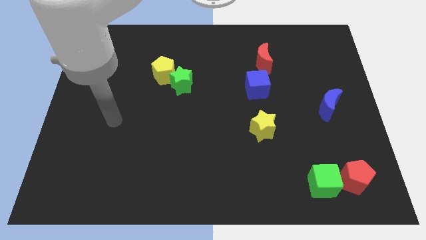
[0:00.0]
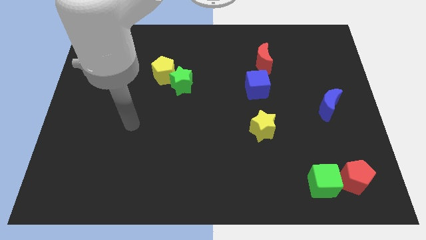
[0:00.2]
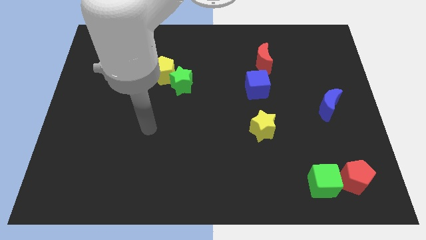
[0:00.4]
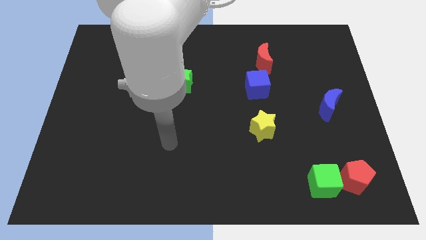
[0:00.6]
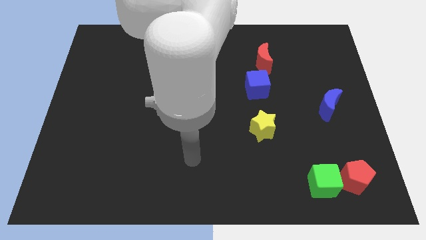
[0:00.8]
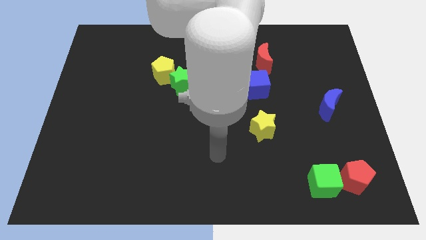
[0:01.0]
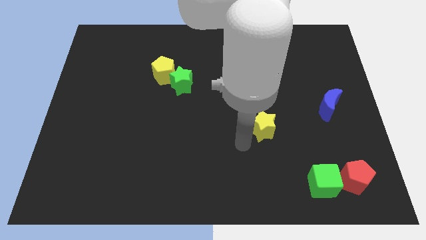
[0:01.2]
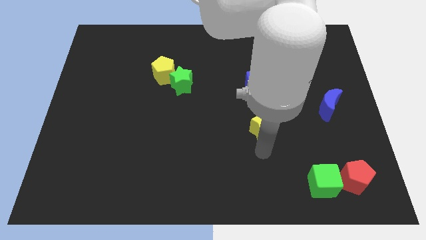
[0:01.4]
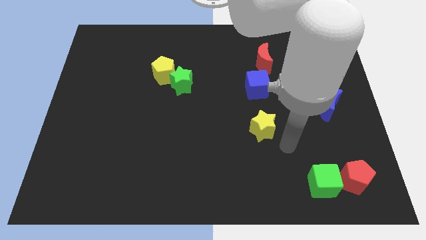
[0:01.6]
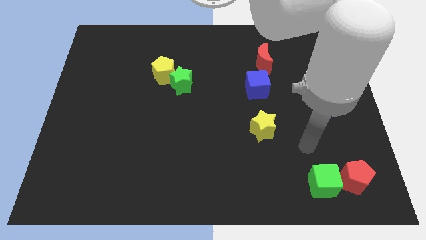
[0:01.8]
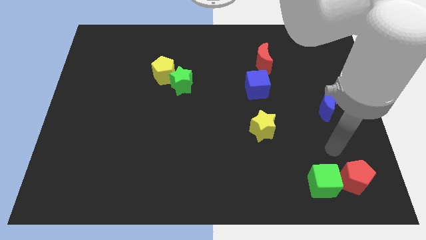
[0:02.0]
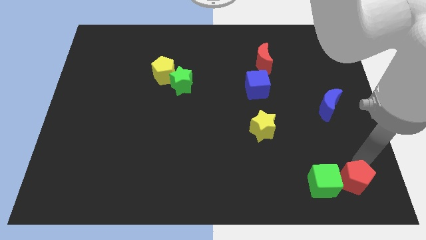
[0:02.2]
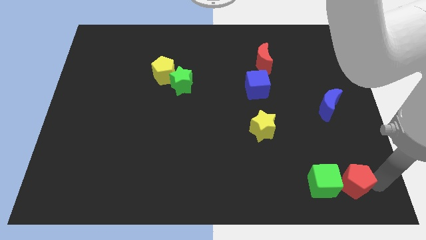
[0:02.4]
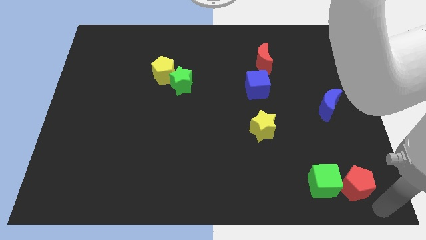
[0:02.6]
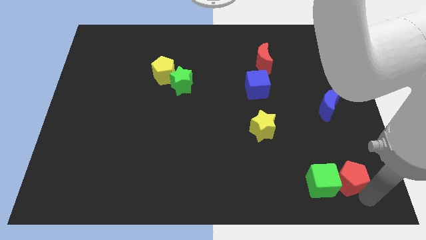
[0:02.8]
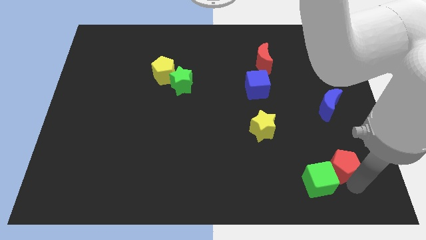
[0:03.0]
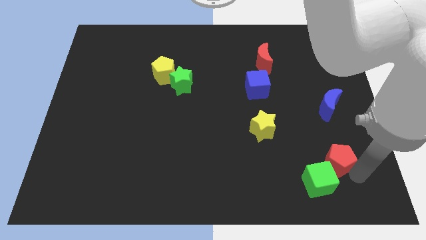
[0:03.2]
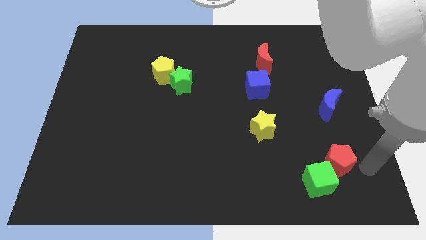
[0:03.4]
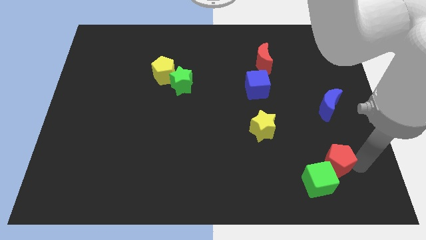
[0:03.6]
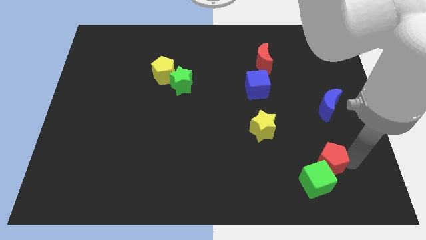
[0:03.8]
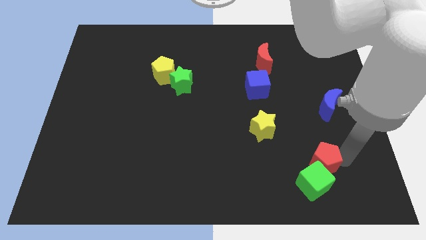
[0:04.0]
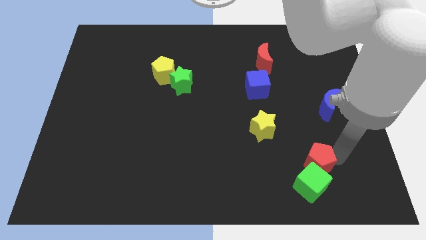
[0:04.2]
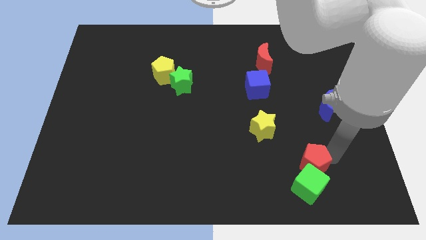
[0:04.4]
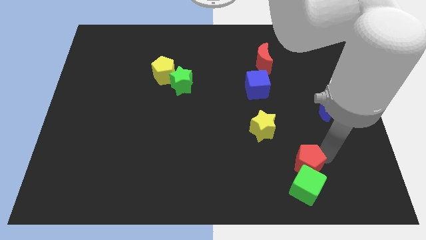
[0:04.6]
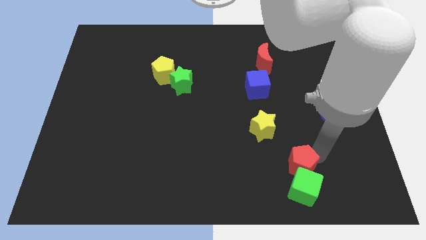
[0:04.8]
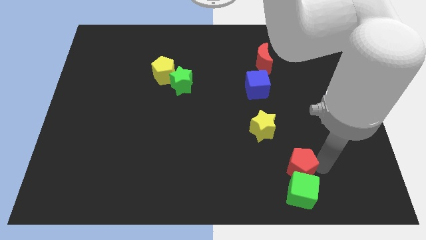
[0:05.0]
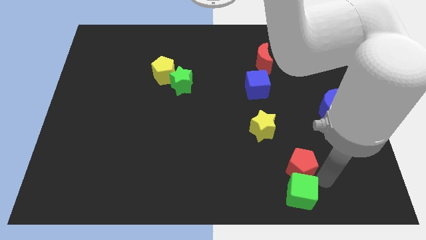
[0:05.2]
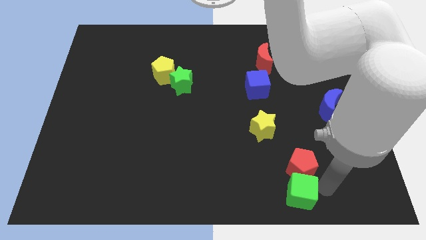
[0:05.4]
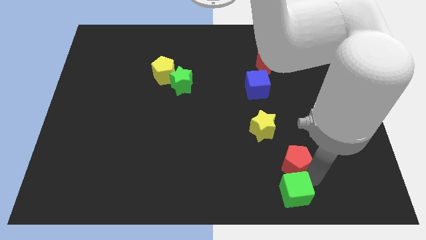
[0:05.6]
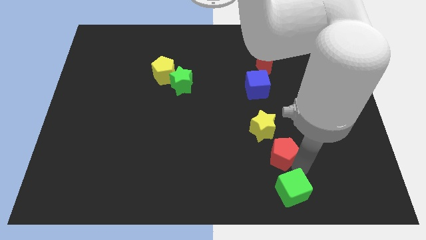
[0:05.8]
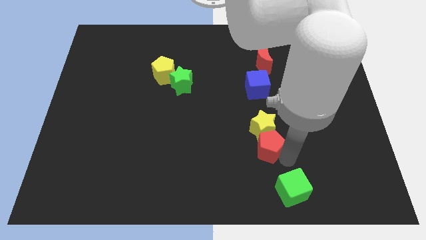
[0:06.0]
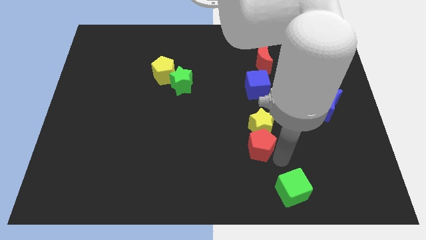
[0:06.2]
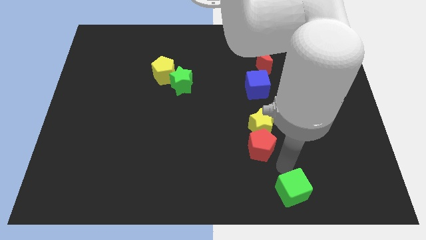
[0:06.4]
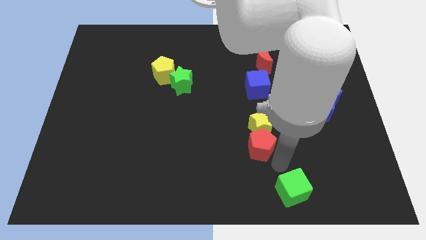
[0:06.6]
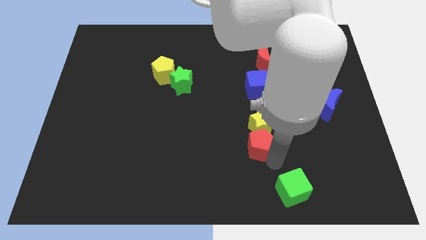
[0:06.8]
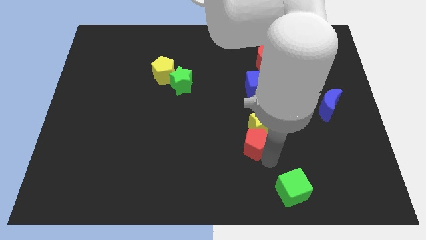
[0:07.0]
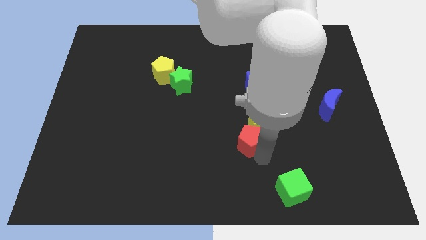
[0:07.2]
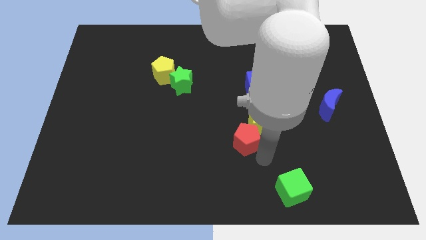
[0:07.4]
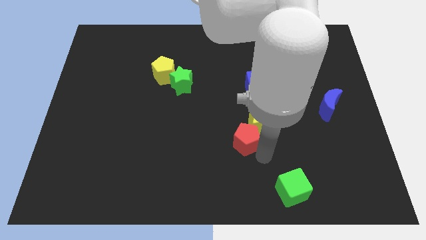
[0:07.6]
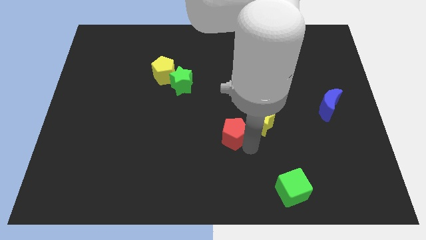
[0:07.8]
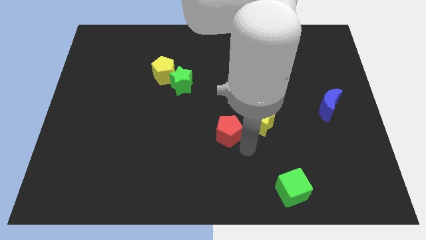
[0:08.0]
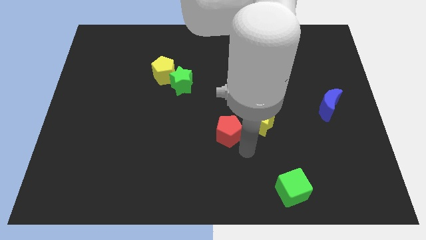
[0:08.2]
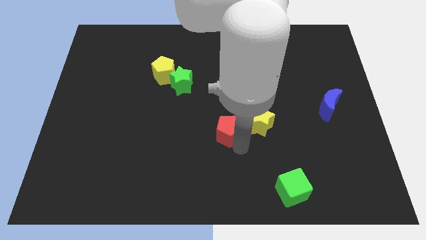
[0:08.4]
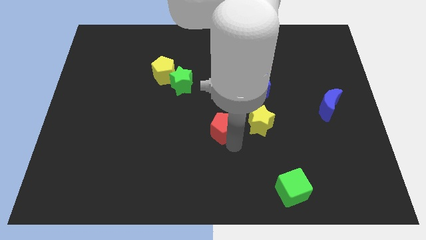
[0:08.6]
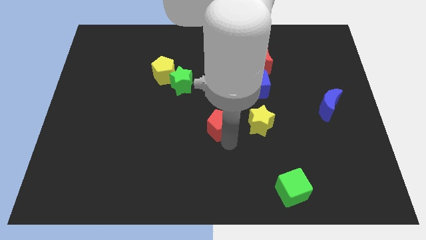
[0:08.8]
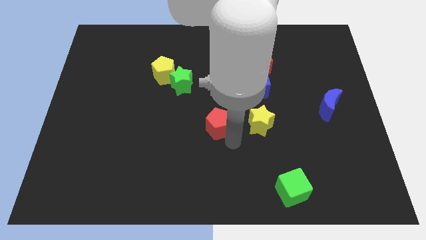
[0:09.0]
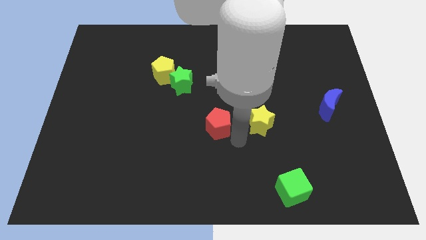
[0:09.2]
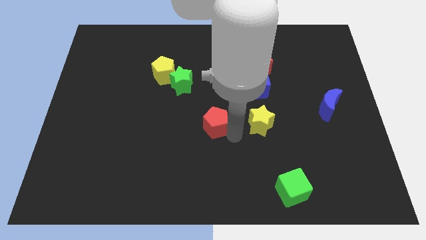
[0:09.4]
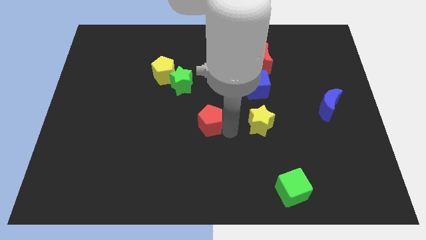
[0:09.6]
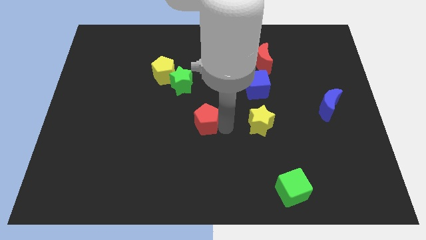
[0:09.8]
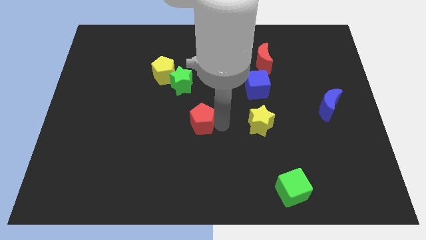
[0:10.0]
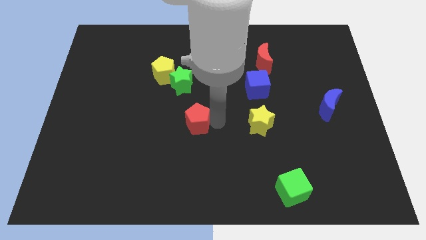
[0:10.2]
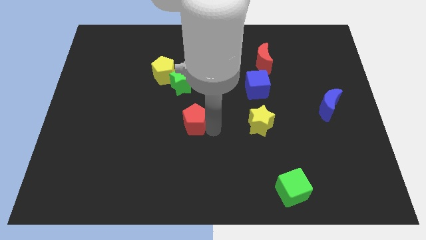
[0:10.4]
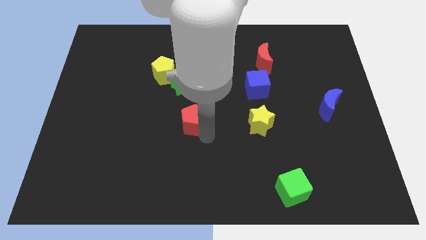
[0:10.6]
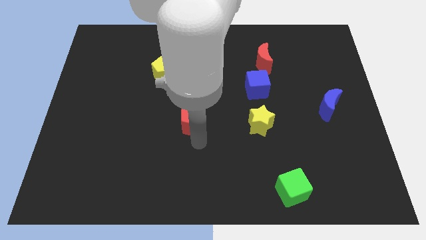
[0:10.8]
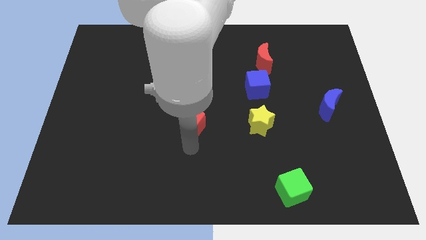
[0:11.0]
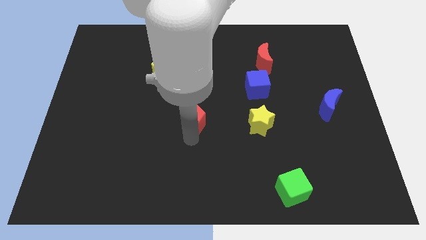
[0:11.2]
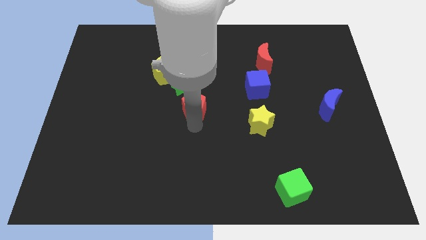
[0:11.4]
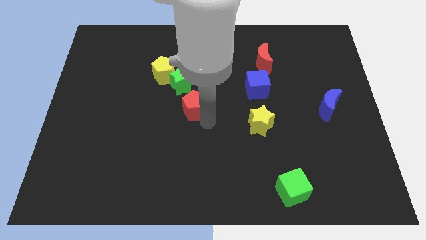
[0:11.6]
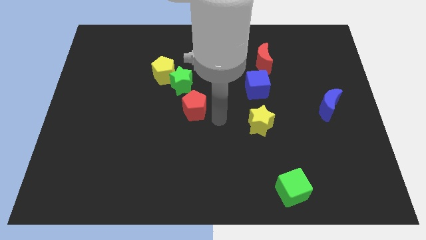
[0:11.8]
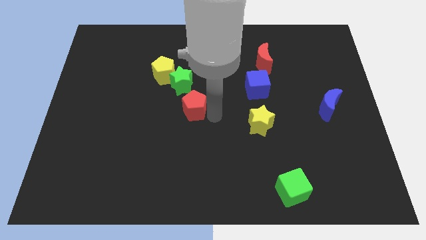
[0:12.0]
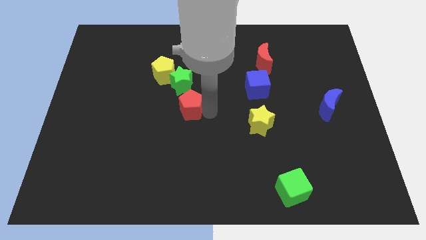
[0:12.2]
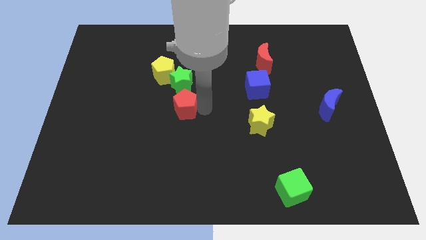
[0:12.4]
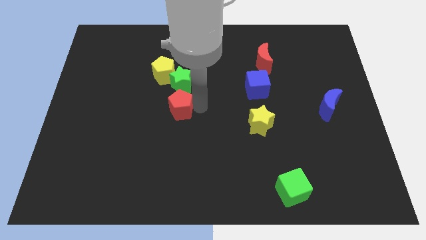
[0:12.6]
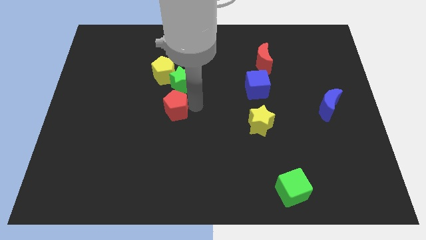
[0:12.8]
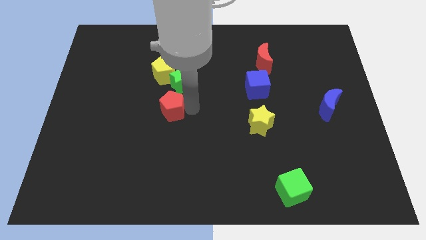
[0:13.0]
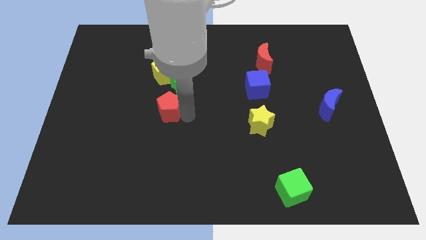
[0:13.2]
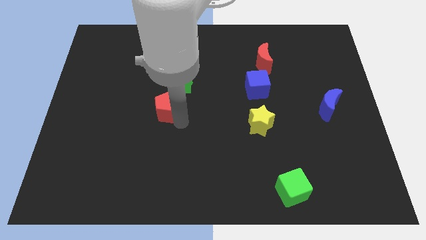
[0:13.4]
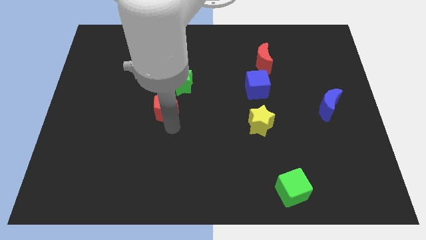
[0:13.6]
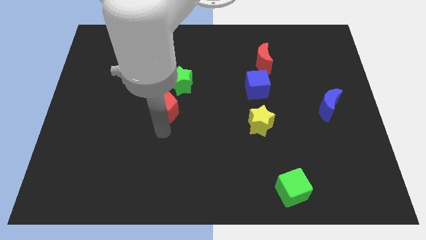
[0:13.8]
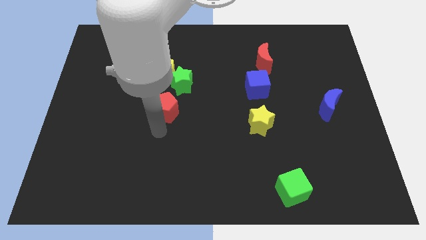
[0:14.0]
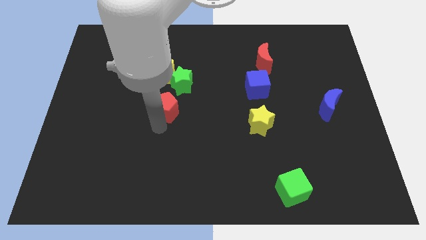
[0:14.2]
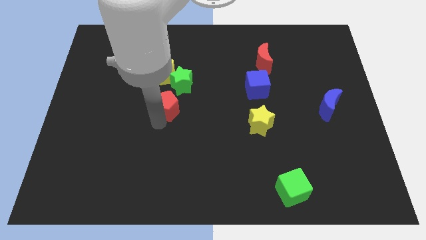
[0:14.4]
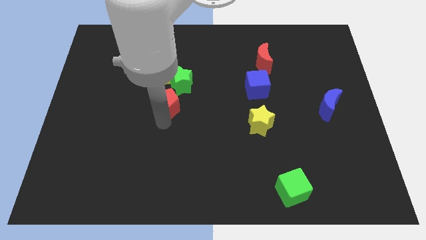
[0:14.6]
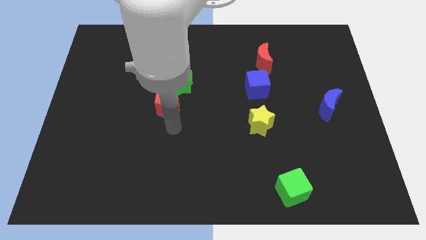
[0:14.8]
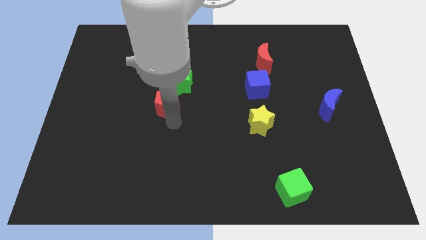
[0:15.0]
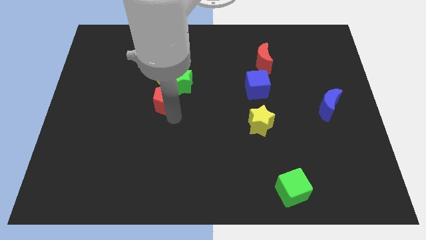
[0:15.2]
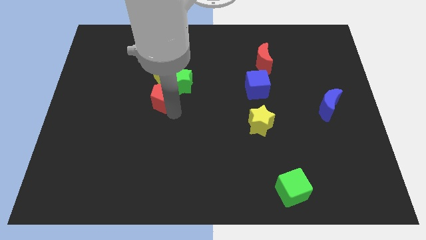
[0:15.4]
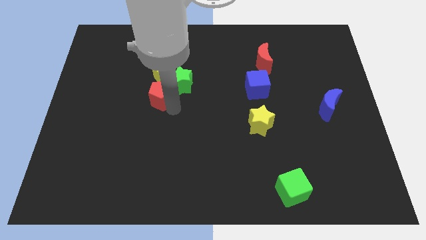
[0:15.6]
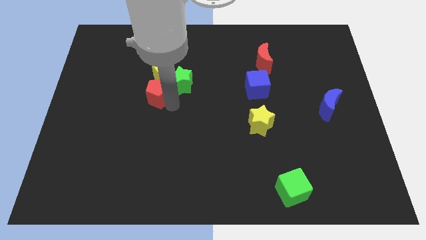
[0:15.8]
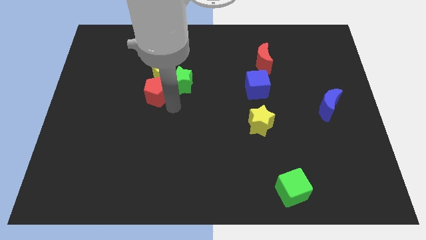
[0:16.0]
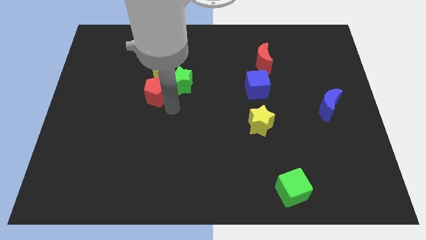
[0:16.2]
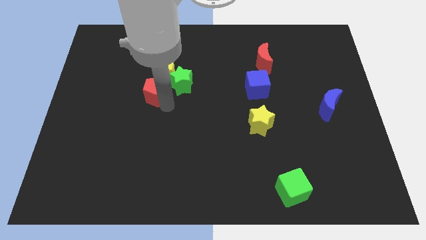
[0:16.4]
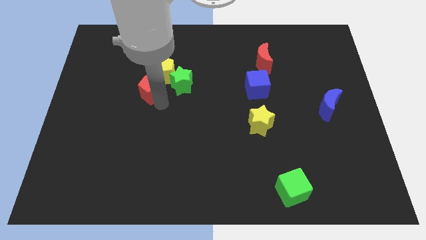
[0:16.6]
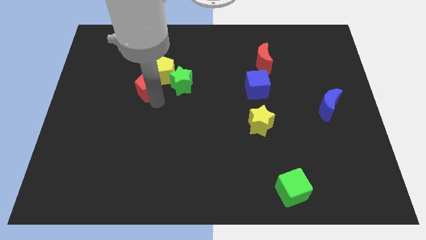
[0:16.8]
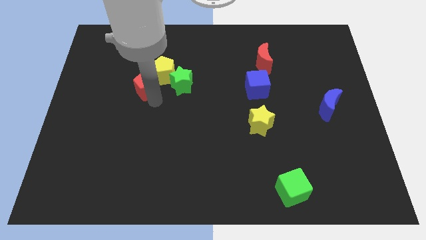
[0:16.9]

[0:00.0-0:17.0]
push the red pentagon to the left side of the yellow pentagon
